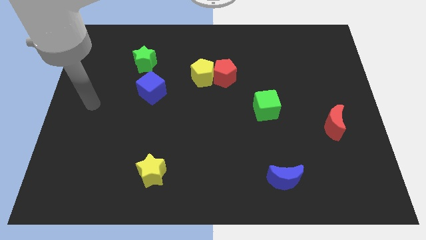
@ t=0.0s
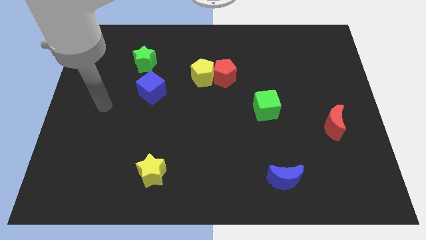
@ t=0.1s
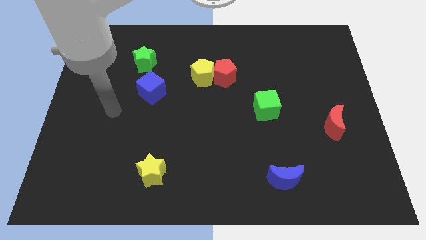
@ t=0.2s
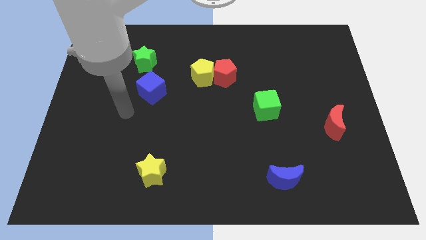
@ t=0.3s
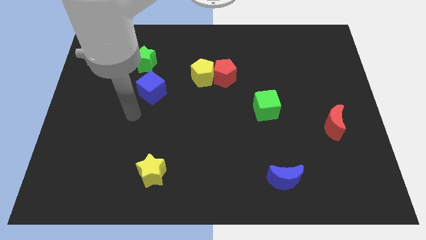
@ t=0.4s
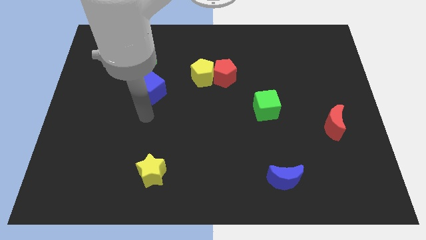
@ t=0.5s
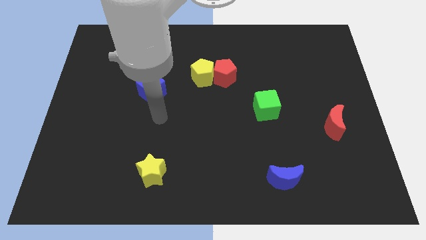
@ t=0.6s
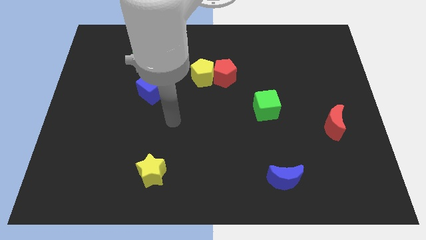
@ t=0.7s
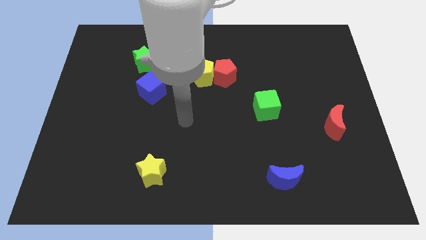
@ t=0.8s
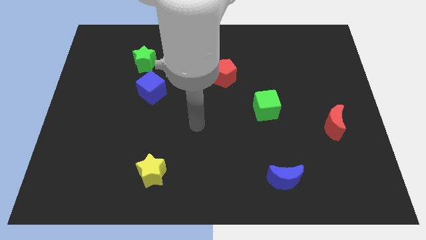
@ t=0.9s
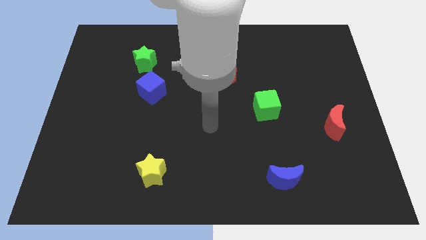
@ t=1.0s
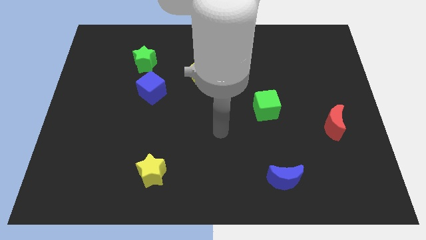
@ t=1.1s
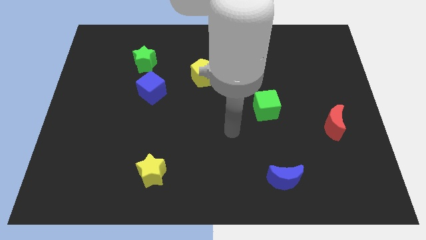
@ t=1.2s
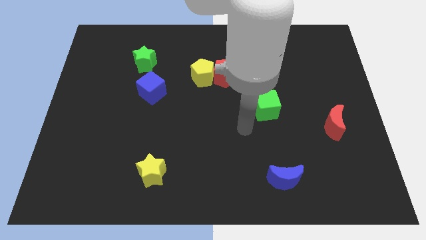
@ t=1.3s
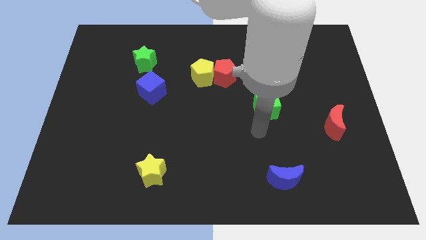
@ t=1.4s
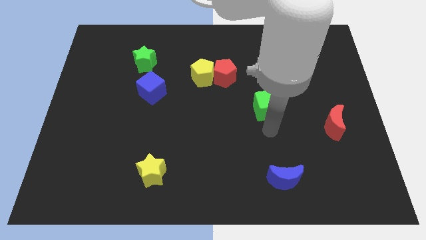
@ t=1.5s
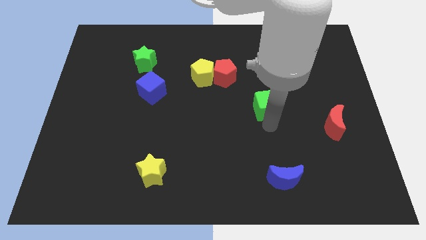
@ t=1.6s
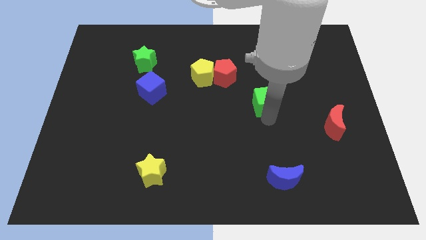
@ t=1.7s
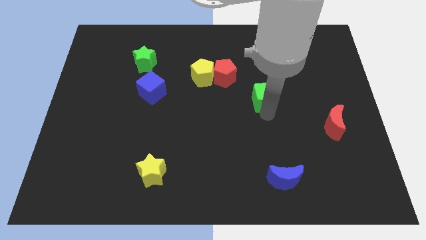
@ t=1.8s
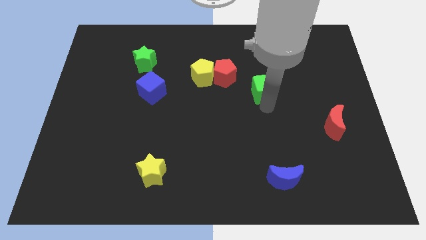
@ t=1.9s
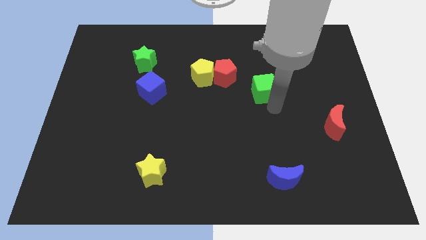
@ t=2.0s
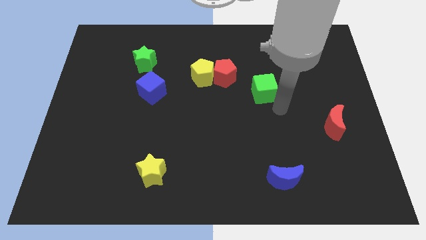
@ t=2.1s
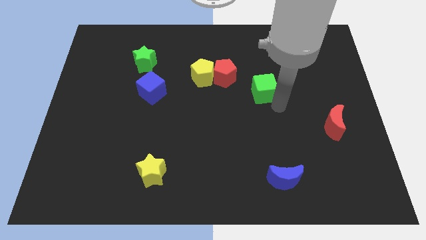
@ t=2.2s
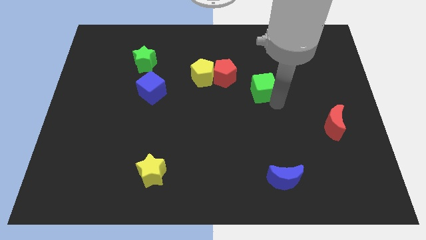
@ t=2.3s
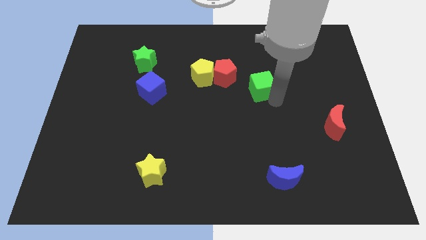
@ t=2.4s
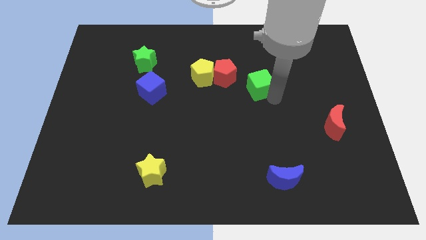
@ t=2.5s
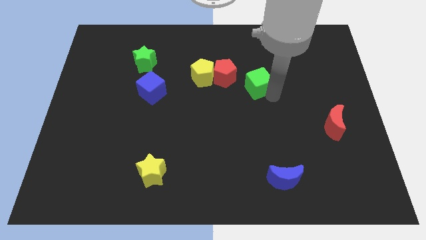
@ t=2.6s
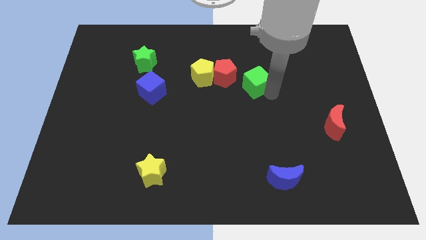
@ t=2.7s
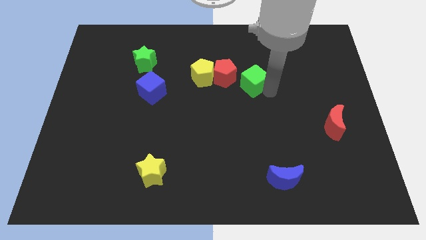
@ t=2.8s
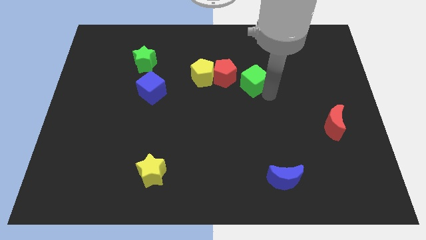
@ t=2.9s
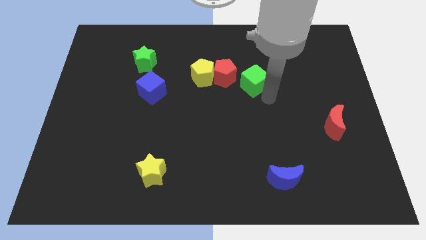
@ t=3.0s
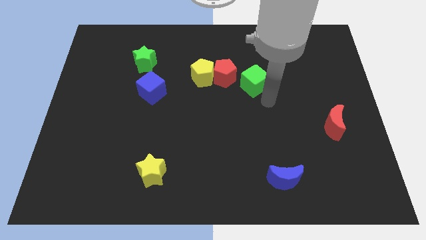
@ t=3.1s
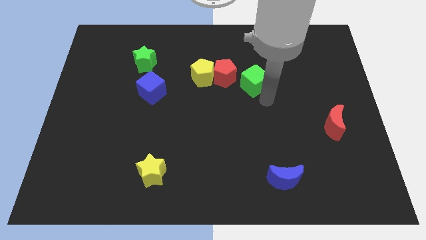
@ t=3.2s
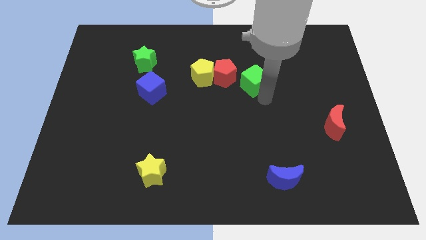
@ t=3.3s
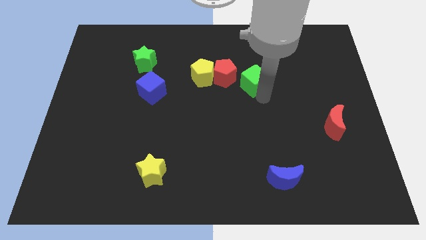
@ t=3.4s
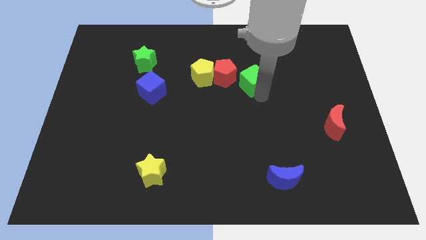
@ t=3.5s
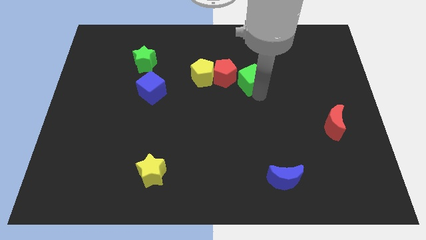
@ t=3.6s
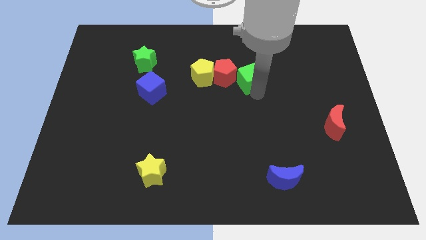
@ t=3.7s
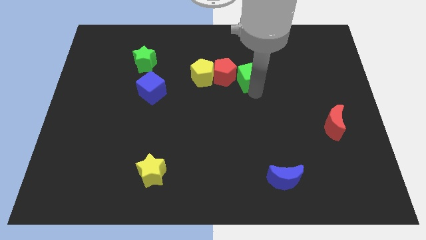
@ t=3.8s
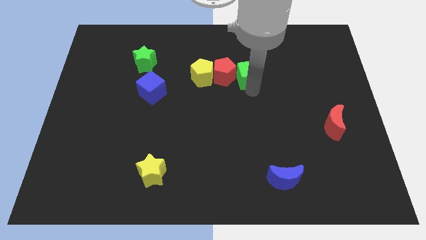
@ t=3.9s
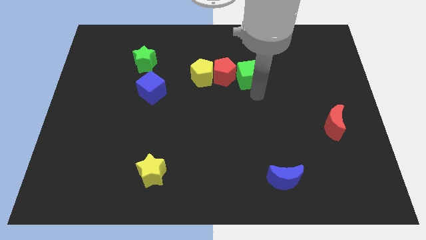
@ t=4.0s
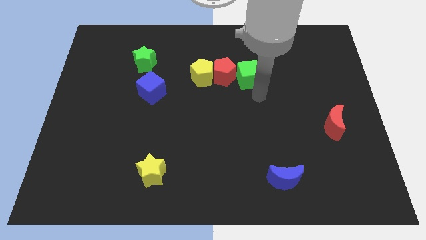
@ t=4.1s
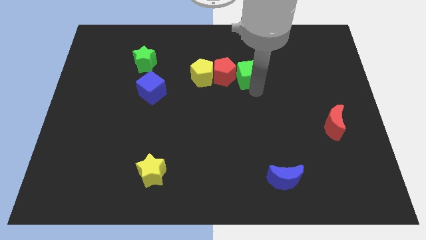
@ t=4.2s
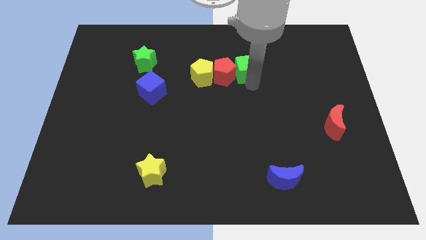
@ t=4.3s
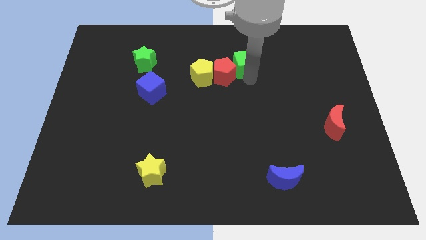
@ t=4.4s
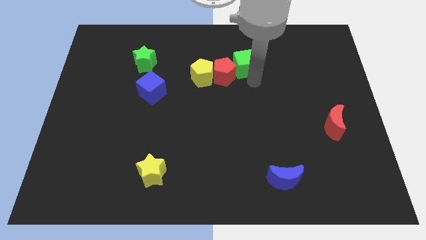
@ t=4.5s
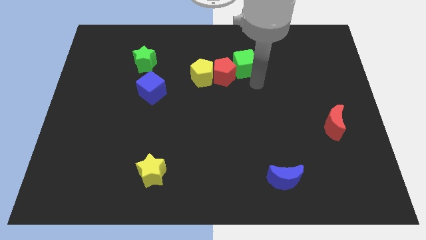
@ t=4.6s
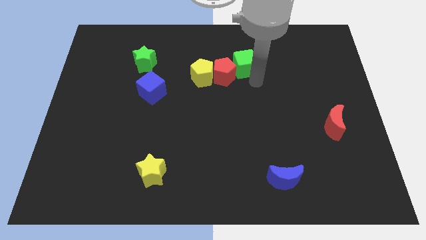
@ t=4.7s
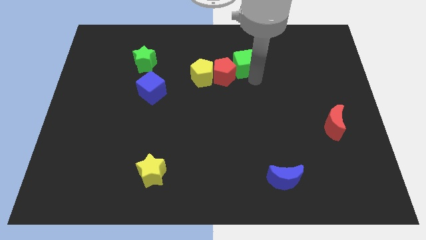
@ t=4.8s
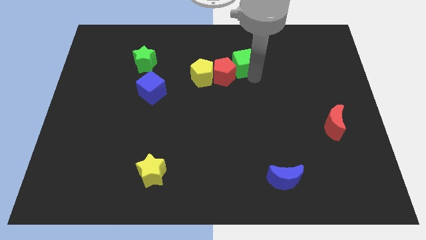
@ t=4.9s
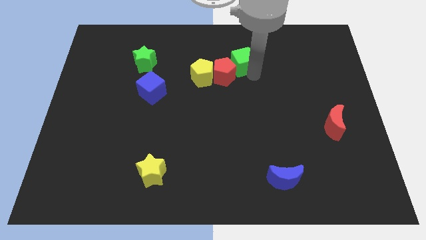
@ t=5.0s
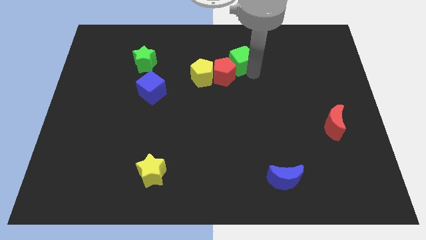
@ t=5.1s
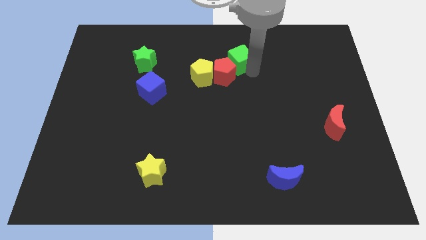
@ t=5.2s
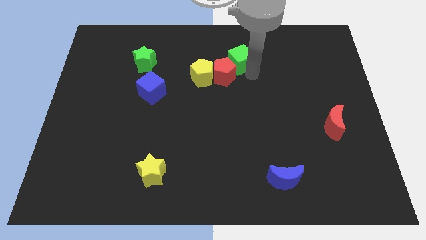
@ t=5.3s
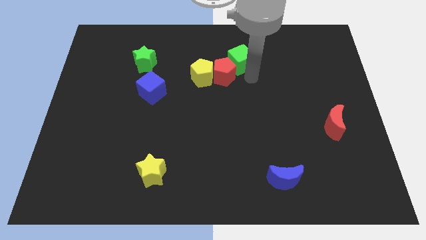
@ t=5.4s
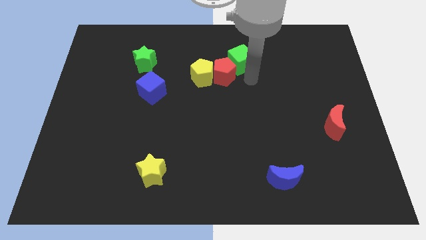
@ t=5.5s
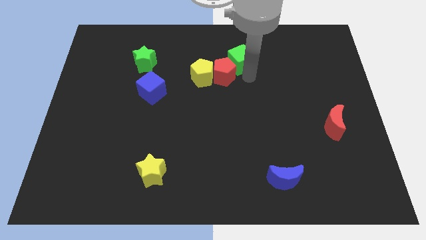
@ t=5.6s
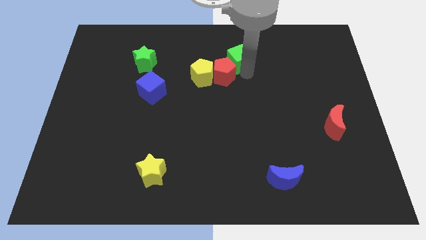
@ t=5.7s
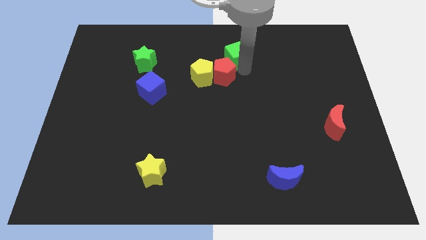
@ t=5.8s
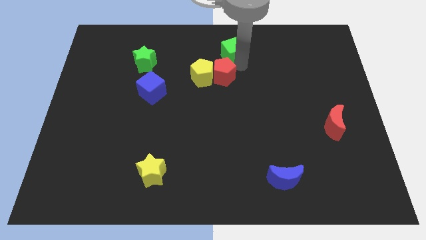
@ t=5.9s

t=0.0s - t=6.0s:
move the green cube to the top side

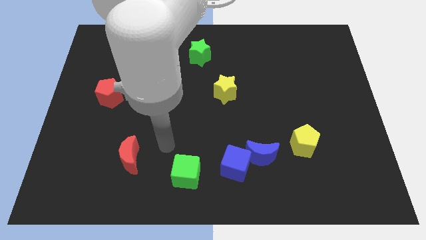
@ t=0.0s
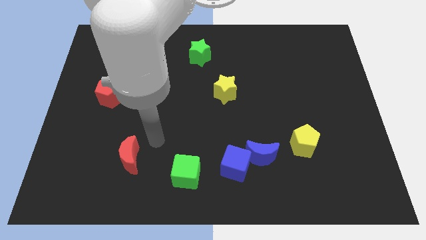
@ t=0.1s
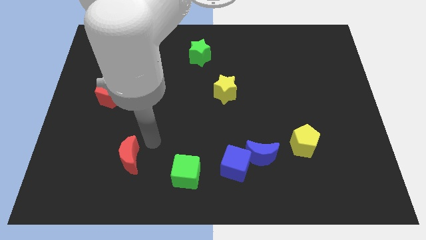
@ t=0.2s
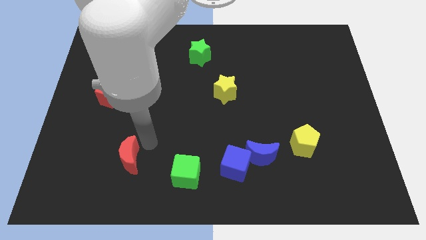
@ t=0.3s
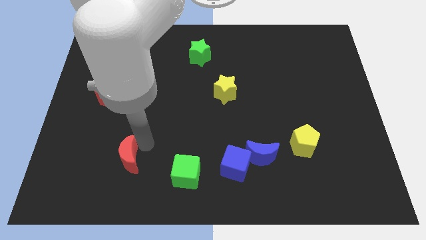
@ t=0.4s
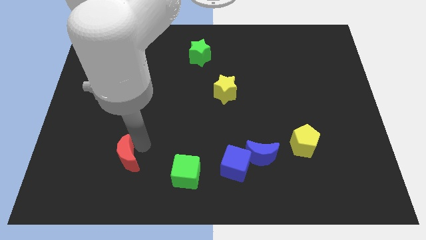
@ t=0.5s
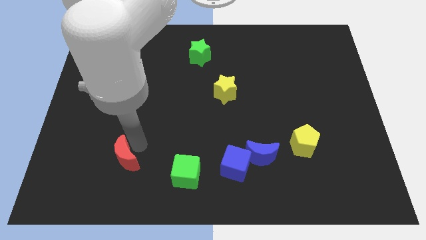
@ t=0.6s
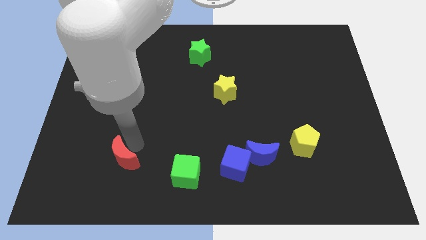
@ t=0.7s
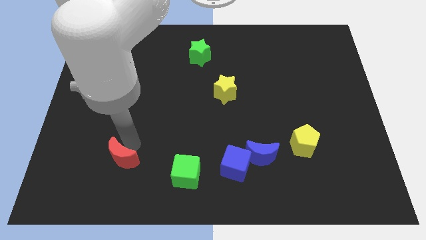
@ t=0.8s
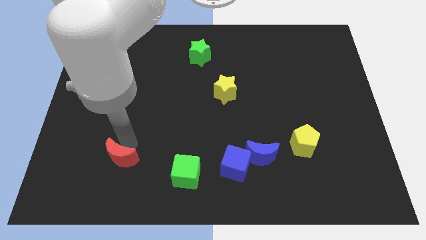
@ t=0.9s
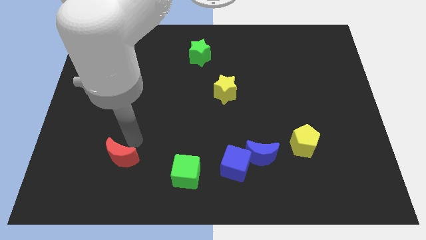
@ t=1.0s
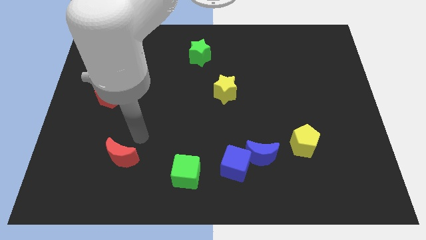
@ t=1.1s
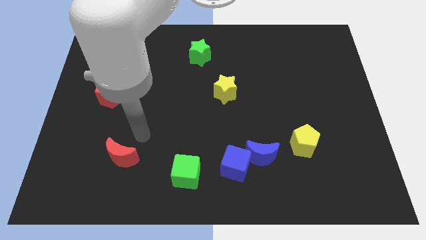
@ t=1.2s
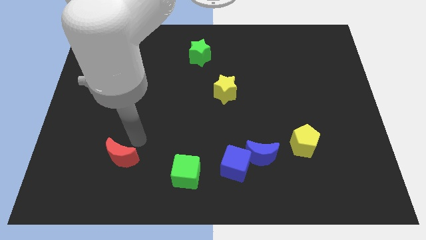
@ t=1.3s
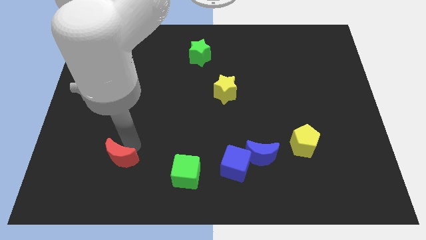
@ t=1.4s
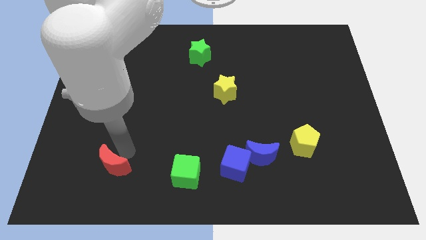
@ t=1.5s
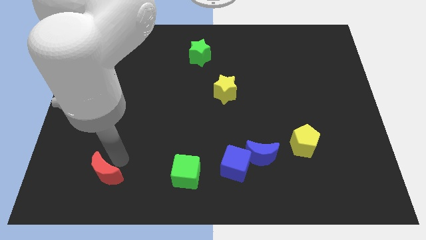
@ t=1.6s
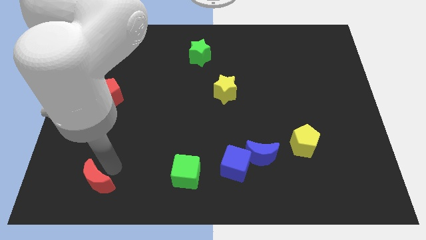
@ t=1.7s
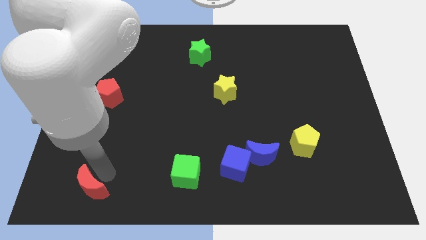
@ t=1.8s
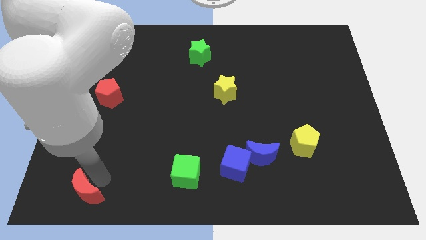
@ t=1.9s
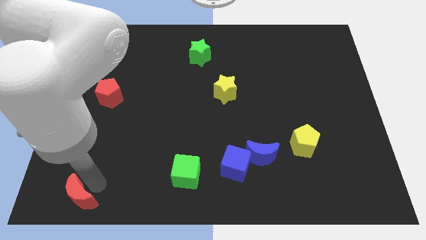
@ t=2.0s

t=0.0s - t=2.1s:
push the red moon to the bottom left
